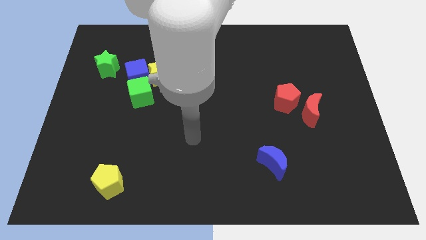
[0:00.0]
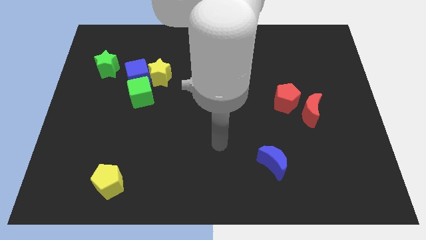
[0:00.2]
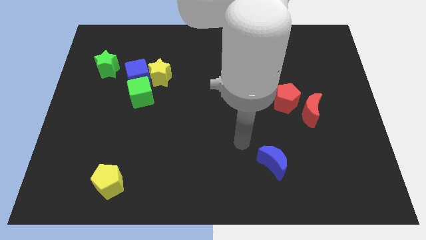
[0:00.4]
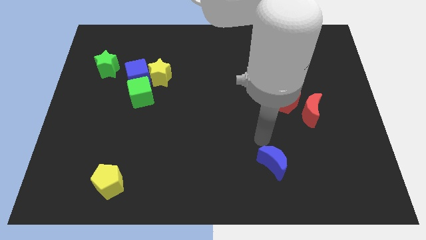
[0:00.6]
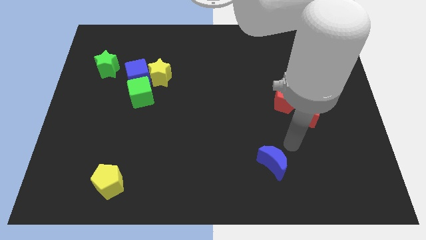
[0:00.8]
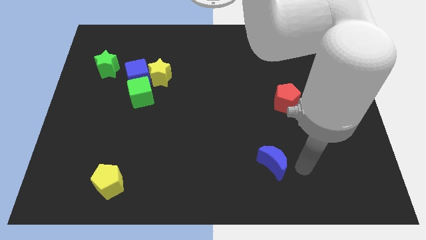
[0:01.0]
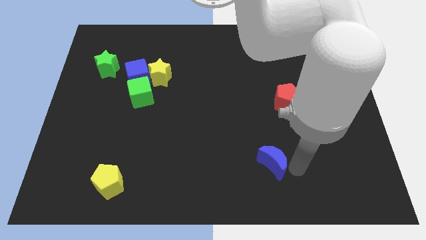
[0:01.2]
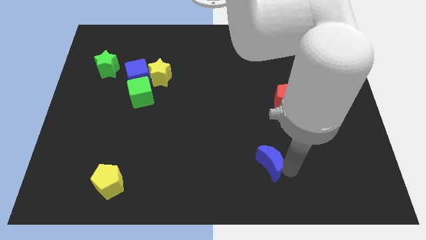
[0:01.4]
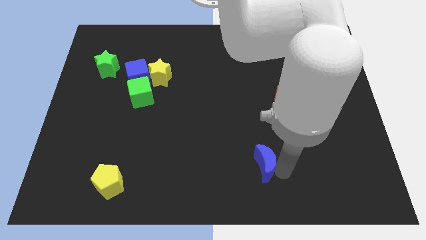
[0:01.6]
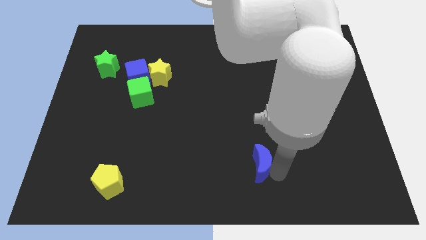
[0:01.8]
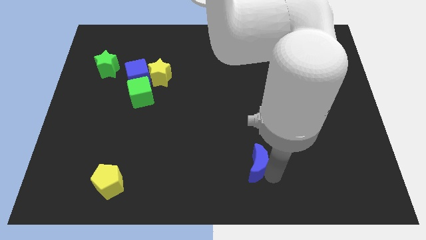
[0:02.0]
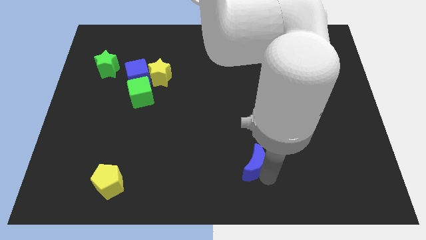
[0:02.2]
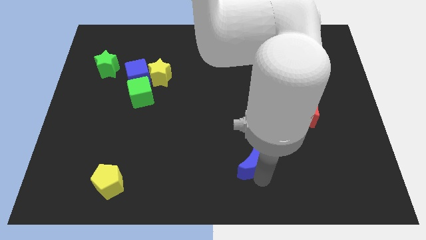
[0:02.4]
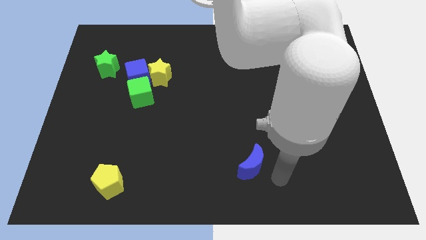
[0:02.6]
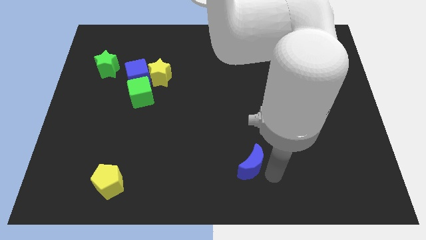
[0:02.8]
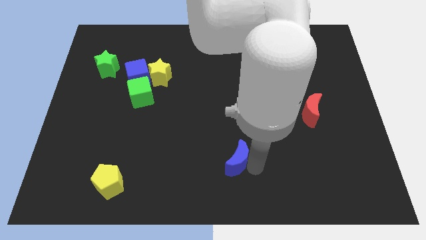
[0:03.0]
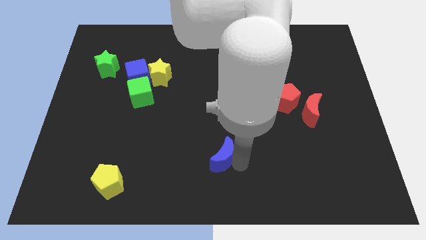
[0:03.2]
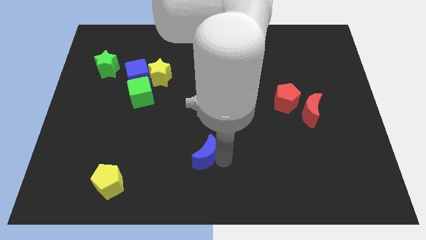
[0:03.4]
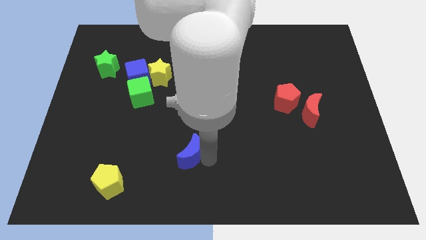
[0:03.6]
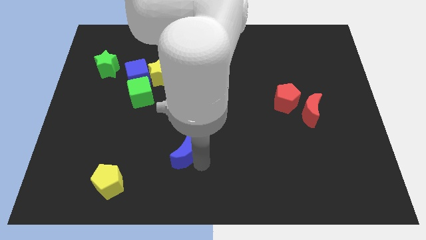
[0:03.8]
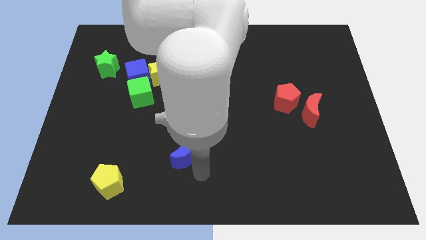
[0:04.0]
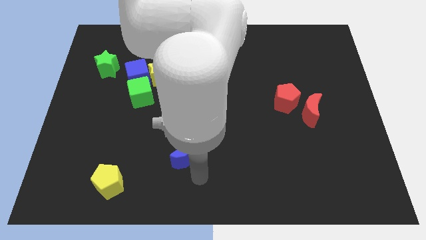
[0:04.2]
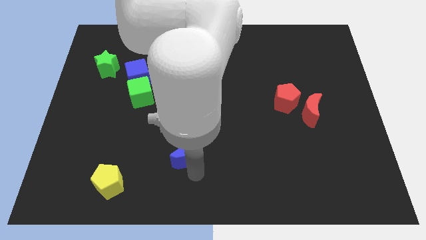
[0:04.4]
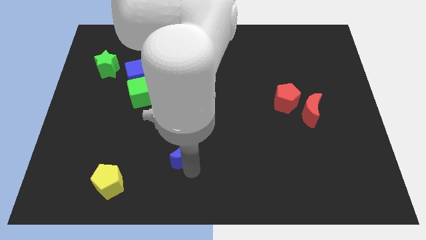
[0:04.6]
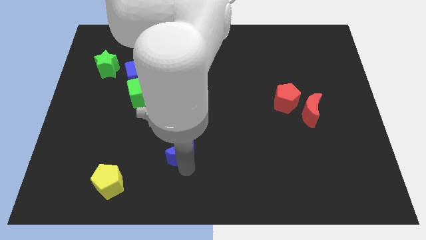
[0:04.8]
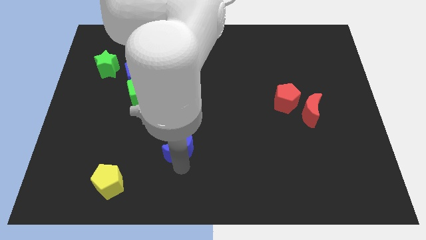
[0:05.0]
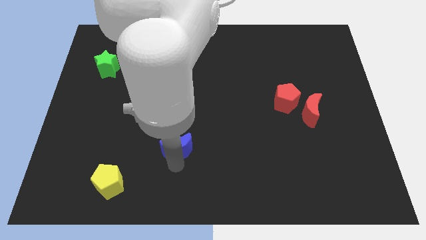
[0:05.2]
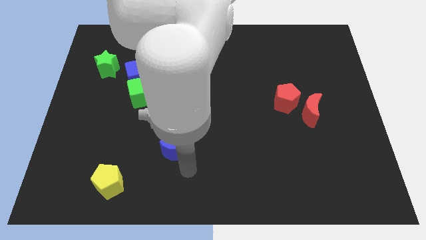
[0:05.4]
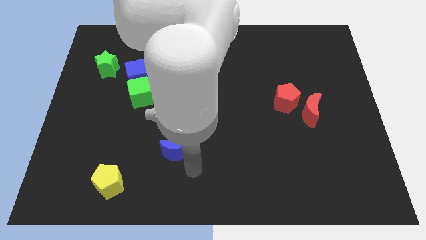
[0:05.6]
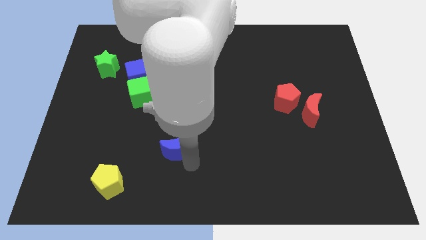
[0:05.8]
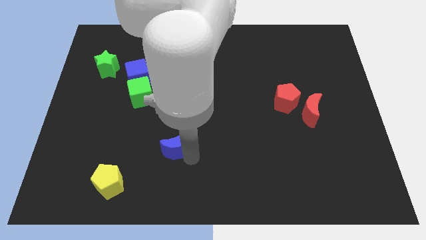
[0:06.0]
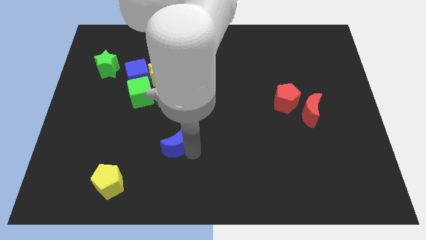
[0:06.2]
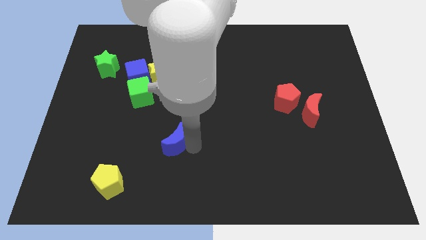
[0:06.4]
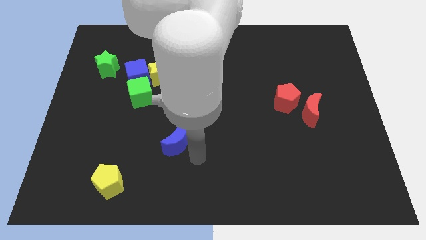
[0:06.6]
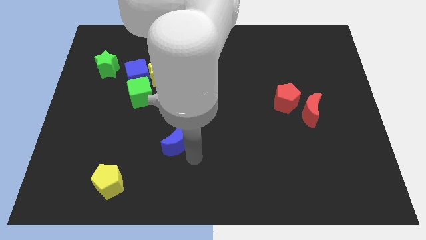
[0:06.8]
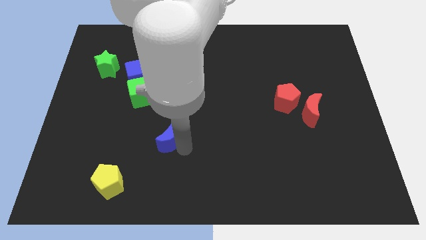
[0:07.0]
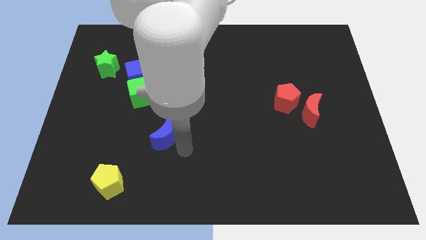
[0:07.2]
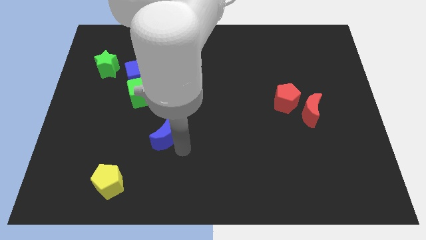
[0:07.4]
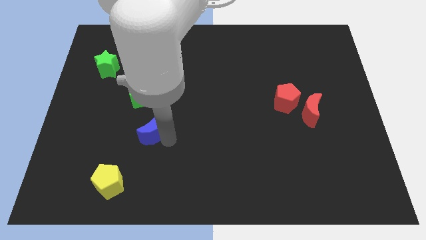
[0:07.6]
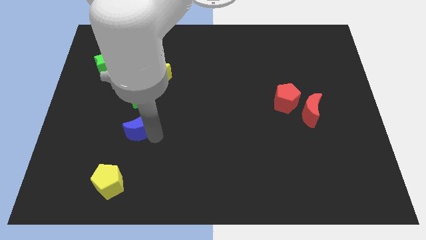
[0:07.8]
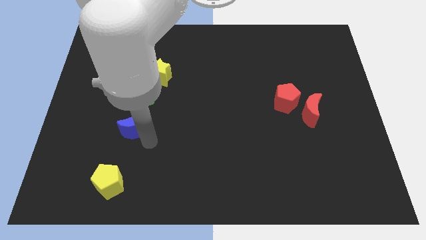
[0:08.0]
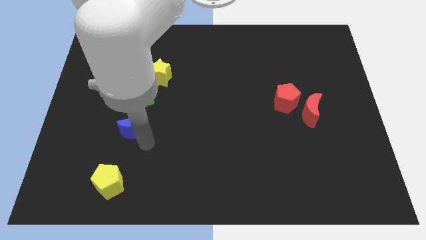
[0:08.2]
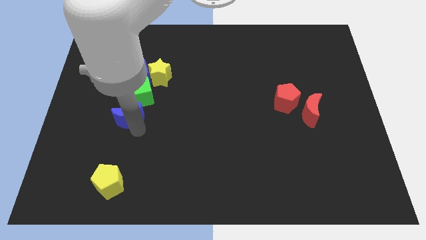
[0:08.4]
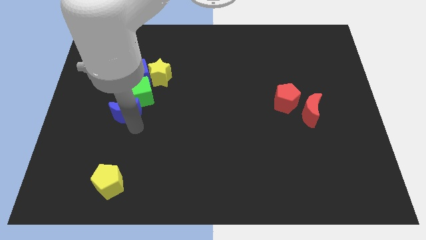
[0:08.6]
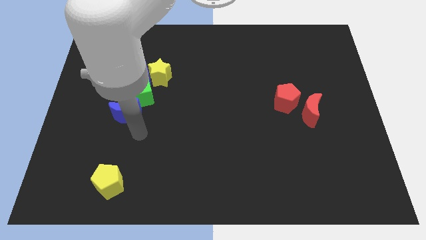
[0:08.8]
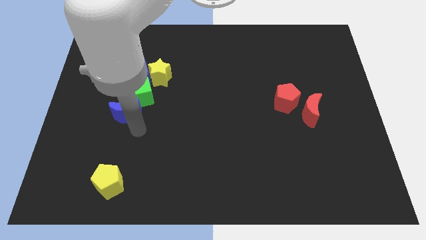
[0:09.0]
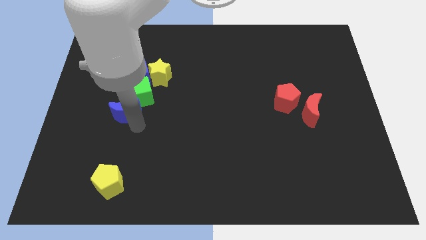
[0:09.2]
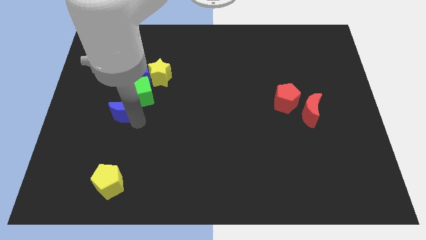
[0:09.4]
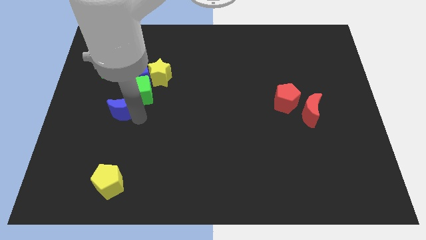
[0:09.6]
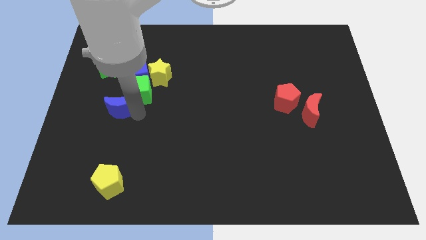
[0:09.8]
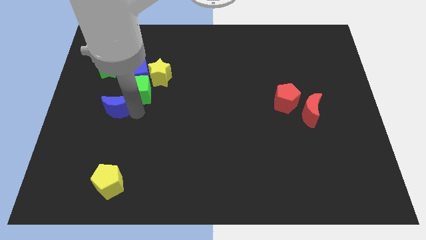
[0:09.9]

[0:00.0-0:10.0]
slide the blue moon to the left side of the green cube

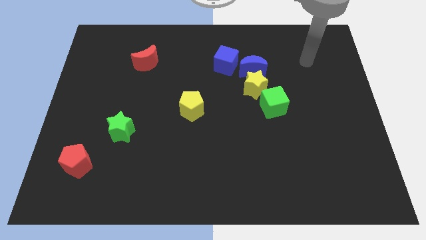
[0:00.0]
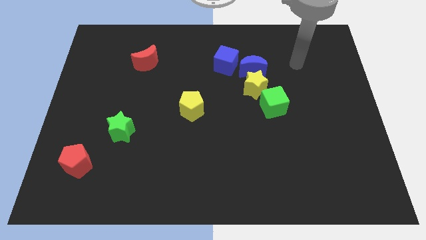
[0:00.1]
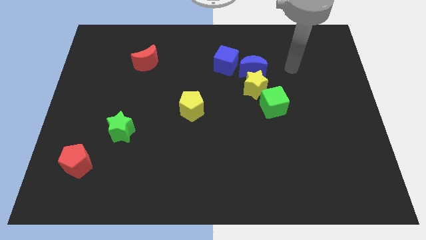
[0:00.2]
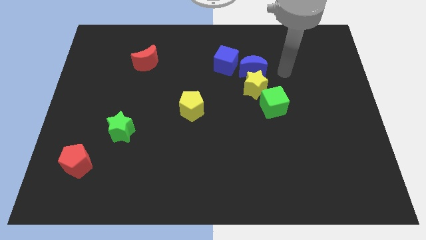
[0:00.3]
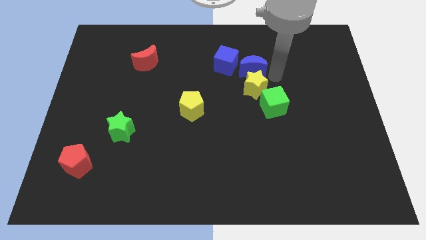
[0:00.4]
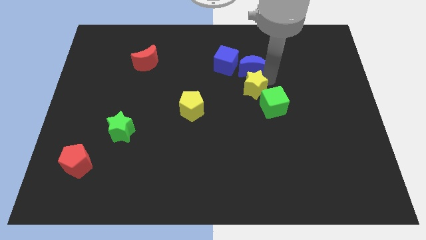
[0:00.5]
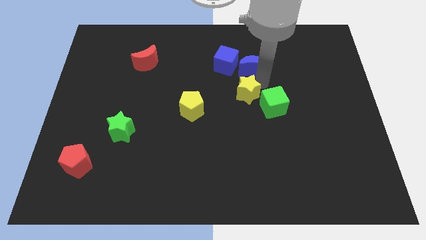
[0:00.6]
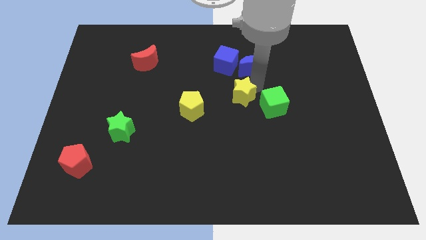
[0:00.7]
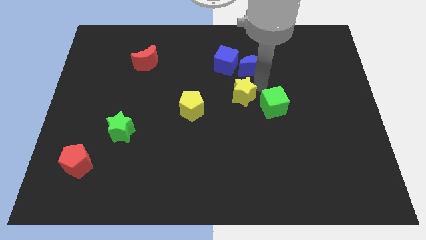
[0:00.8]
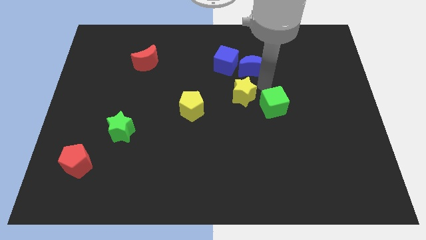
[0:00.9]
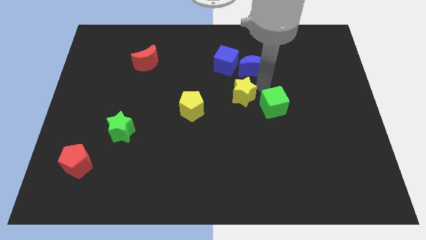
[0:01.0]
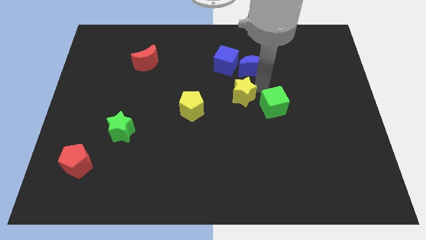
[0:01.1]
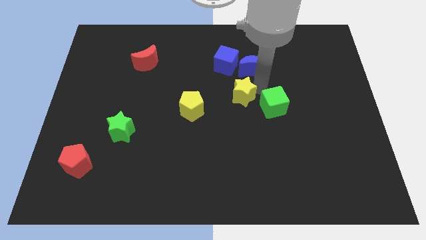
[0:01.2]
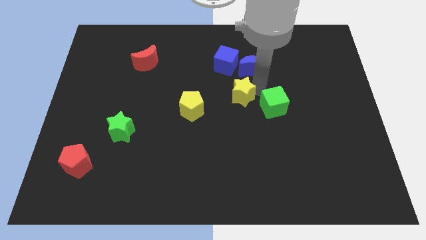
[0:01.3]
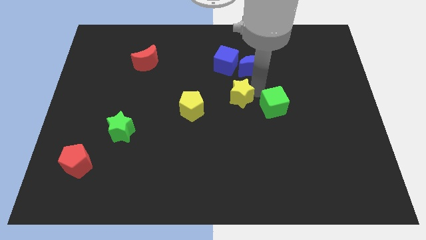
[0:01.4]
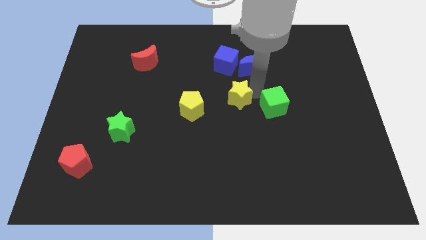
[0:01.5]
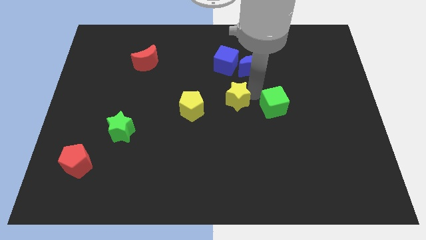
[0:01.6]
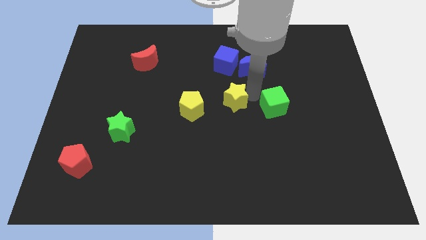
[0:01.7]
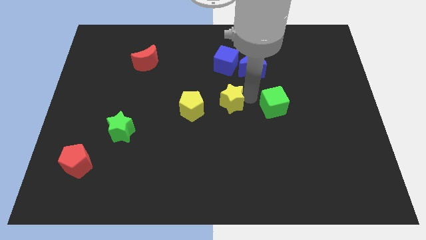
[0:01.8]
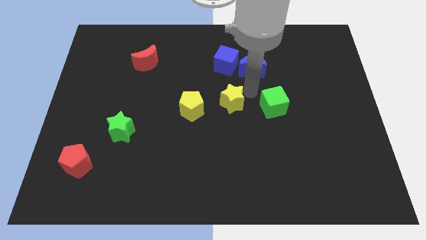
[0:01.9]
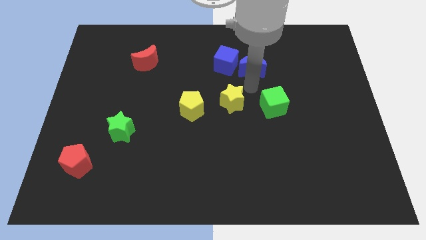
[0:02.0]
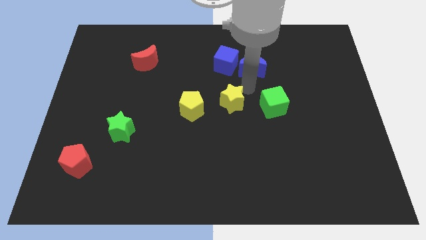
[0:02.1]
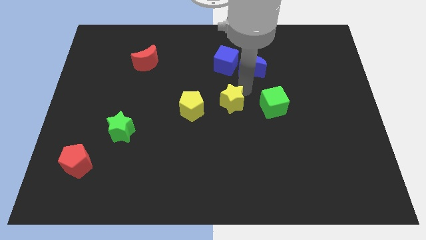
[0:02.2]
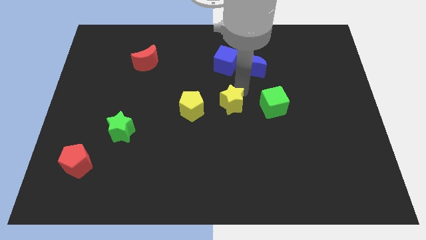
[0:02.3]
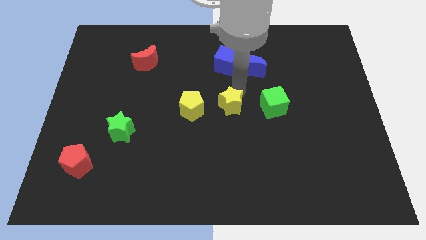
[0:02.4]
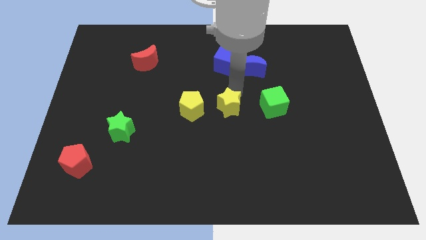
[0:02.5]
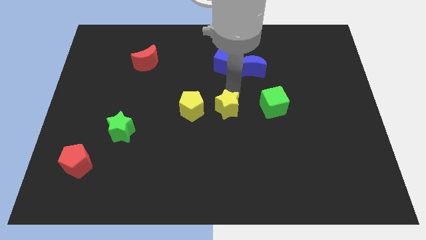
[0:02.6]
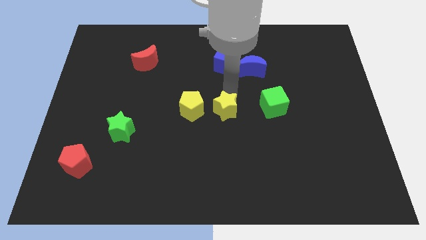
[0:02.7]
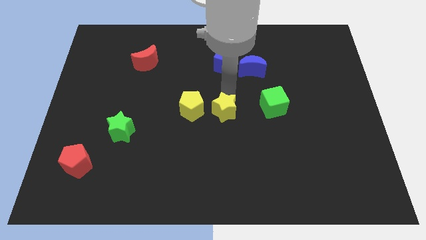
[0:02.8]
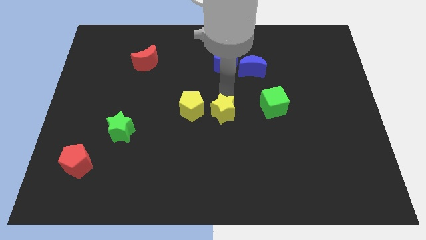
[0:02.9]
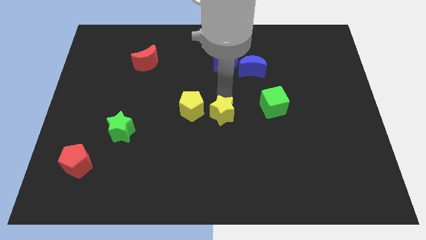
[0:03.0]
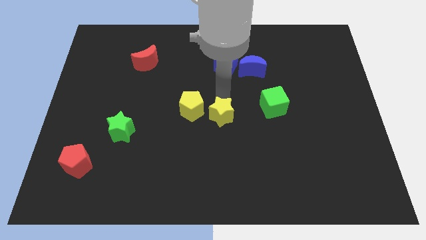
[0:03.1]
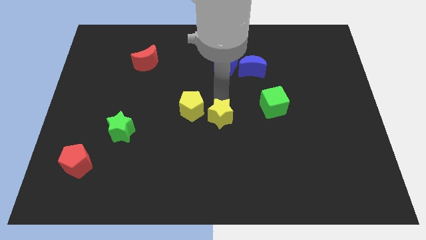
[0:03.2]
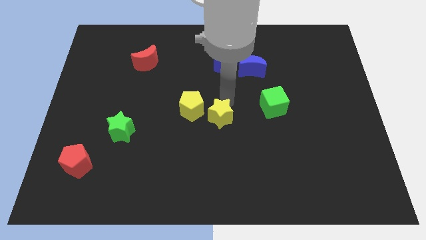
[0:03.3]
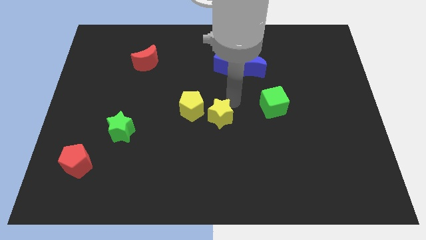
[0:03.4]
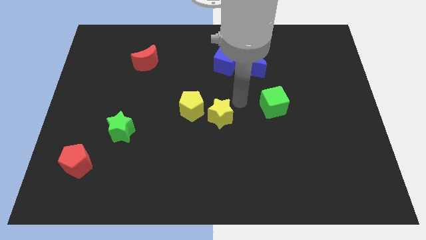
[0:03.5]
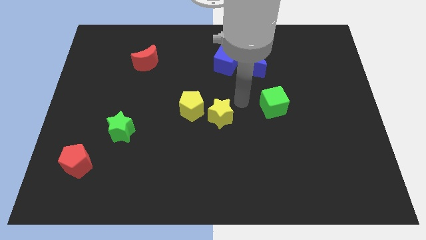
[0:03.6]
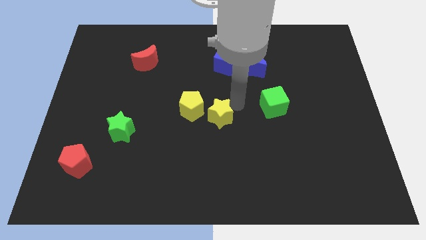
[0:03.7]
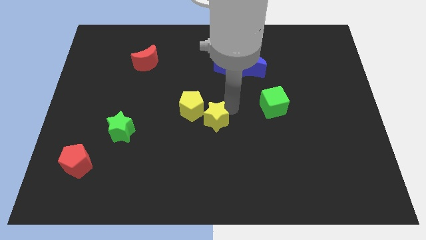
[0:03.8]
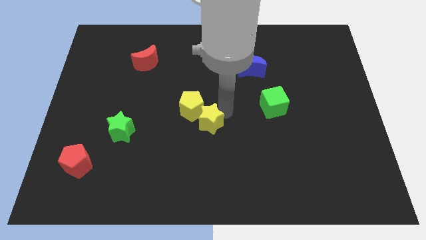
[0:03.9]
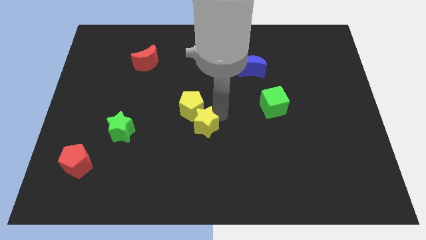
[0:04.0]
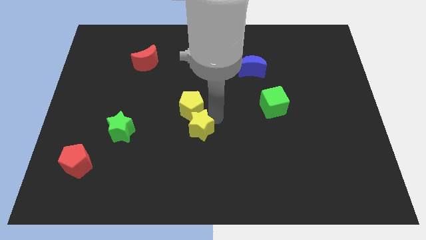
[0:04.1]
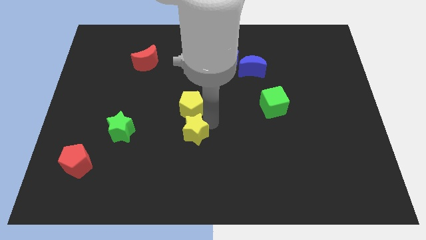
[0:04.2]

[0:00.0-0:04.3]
move the yellow star diagonally down and to the left of the yellow pentagon
